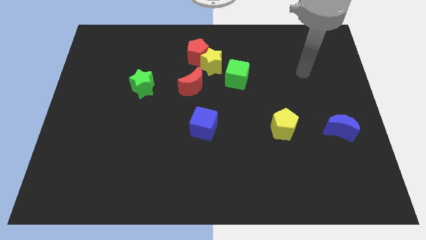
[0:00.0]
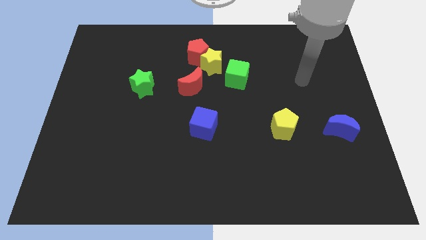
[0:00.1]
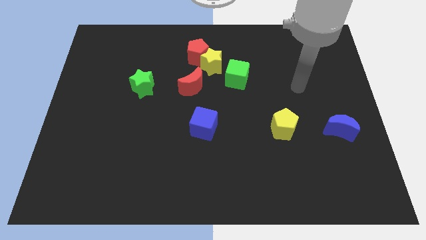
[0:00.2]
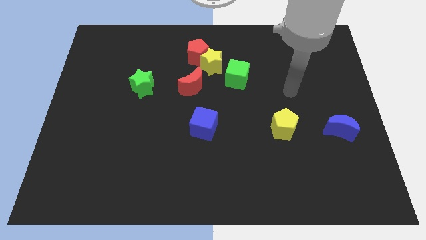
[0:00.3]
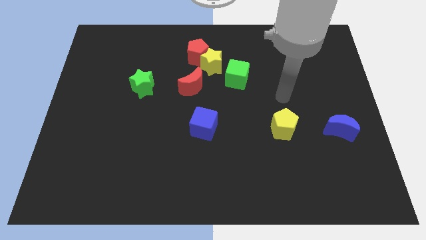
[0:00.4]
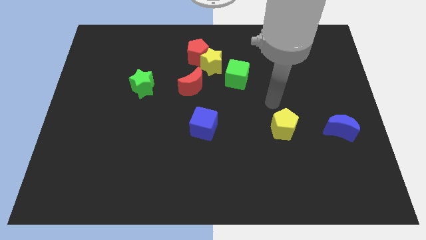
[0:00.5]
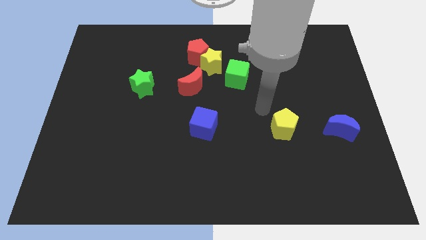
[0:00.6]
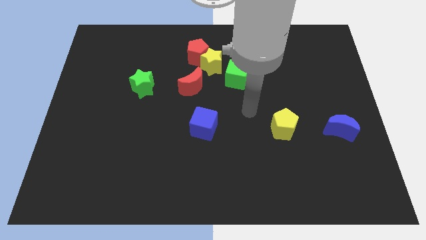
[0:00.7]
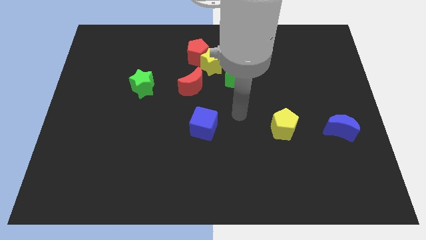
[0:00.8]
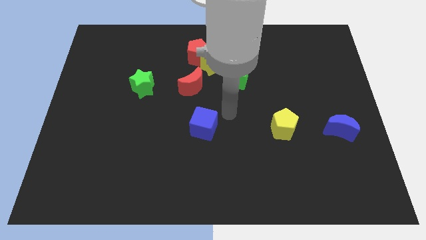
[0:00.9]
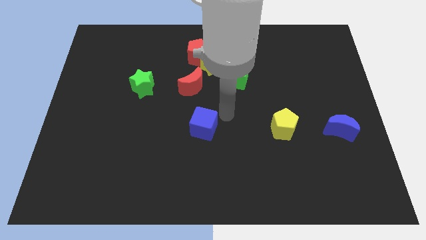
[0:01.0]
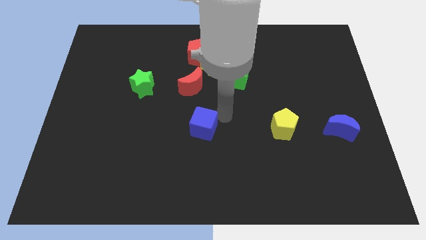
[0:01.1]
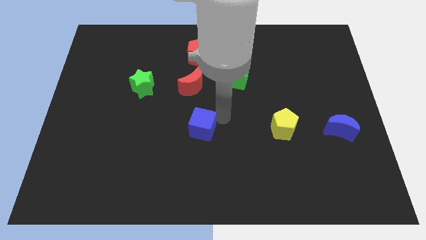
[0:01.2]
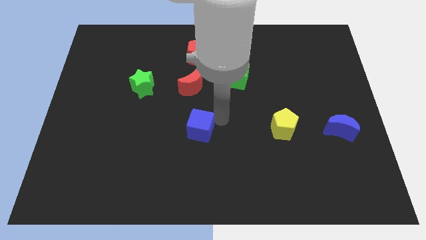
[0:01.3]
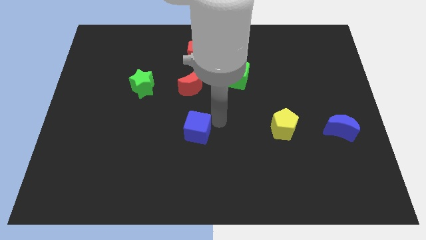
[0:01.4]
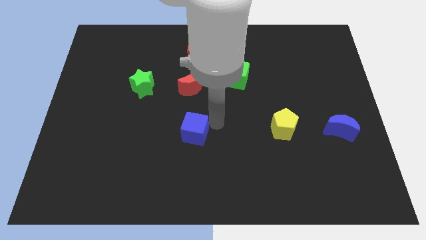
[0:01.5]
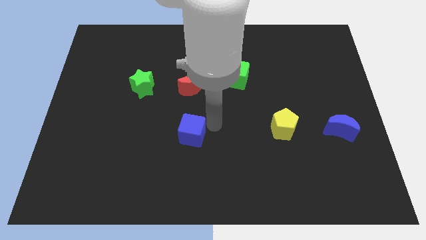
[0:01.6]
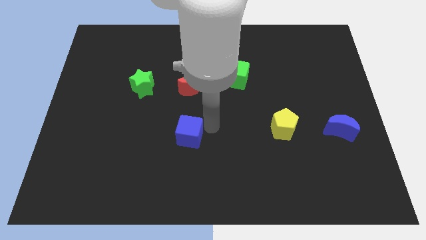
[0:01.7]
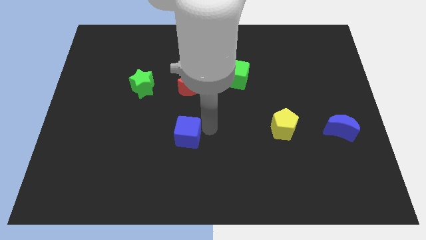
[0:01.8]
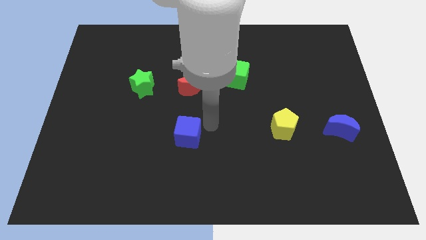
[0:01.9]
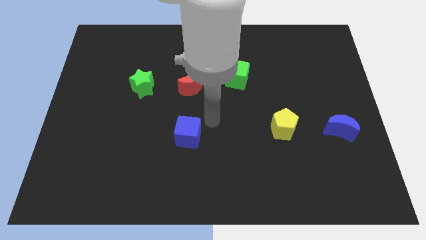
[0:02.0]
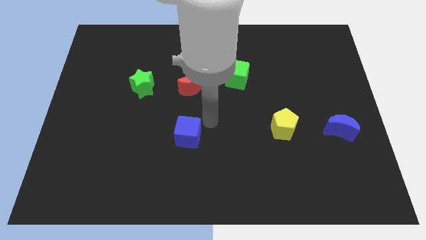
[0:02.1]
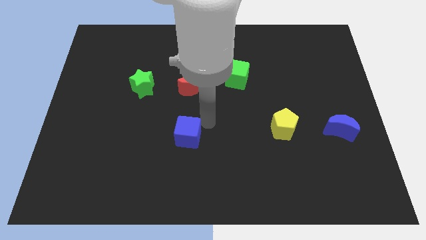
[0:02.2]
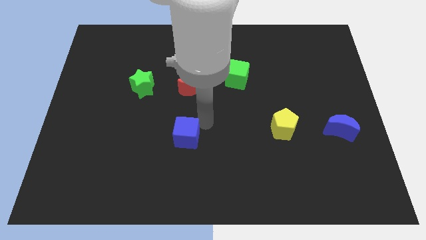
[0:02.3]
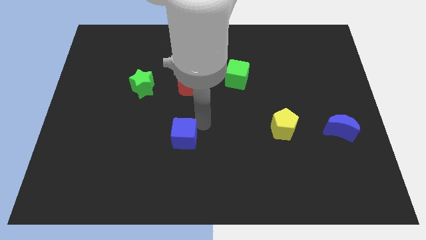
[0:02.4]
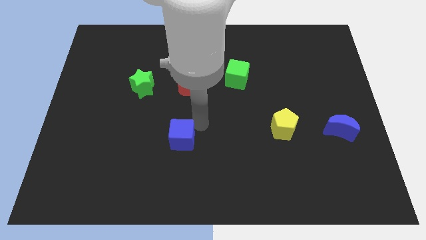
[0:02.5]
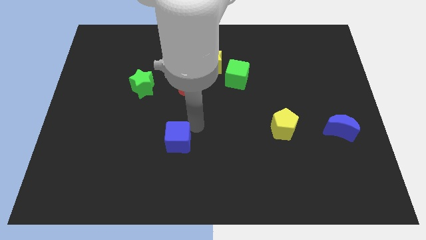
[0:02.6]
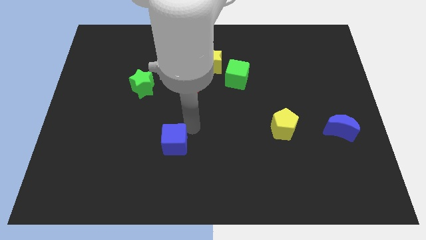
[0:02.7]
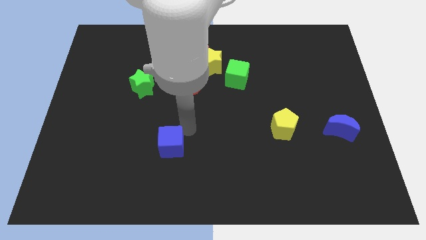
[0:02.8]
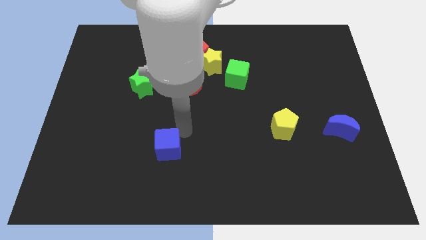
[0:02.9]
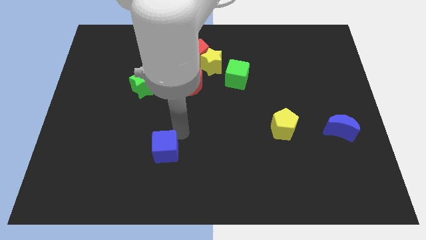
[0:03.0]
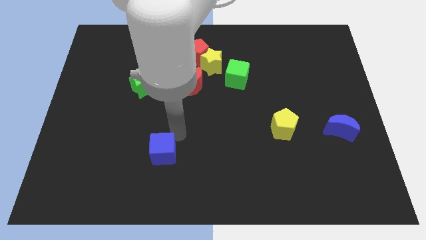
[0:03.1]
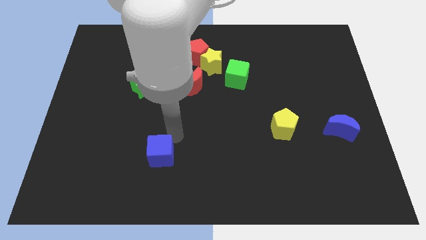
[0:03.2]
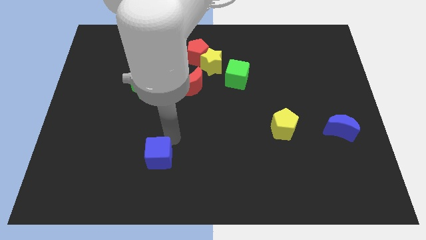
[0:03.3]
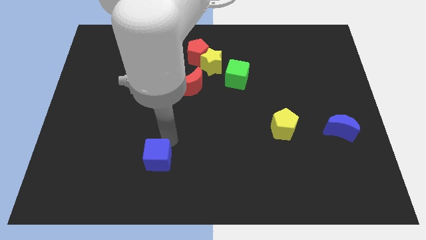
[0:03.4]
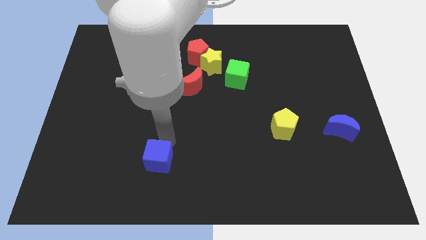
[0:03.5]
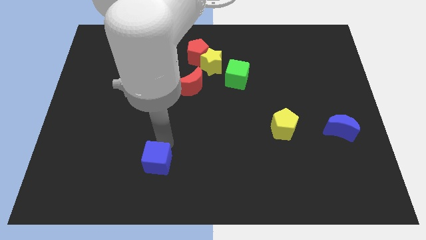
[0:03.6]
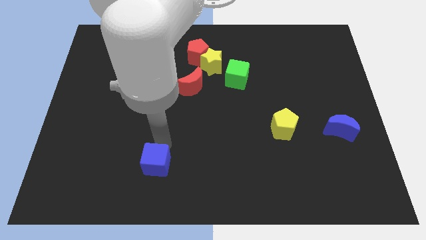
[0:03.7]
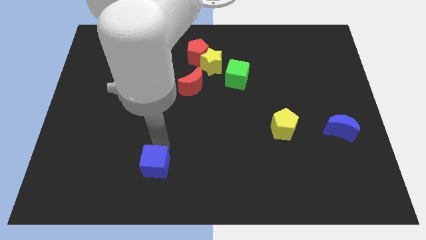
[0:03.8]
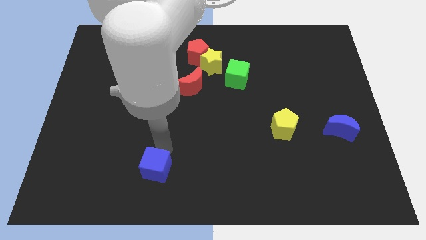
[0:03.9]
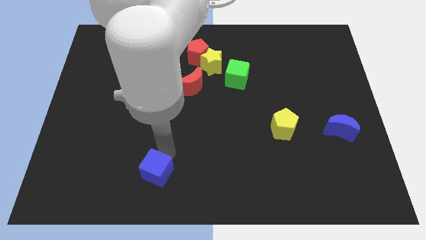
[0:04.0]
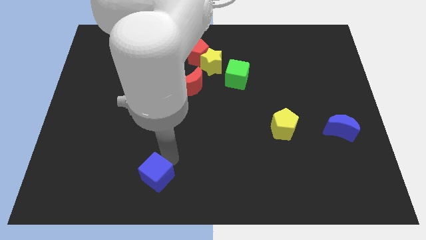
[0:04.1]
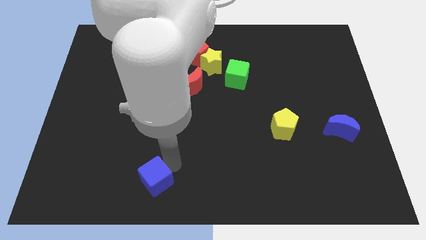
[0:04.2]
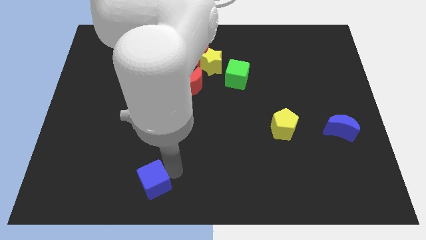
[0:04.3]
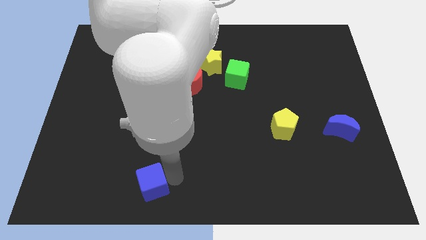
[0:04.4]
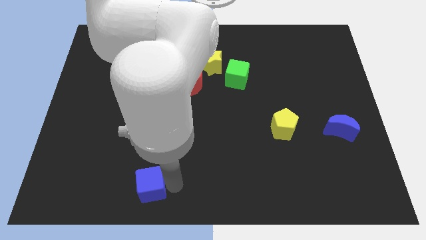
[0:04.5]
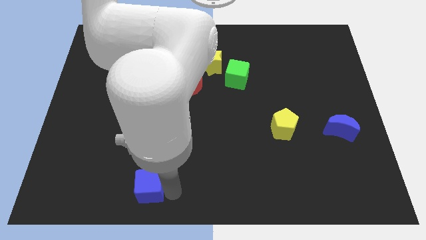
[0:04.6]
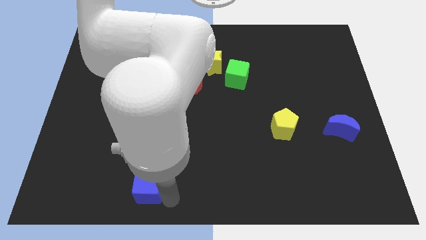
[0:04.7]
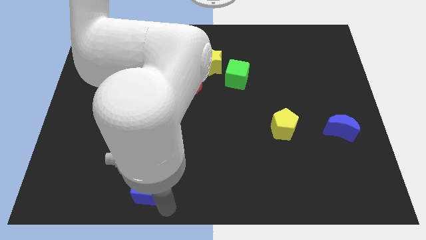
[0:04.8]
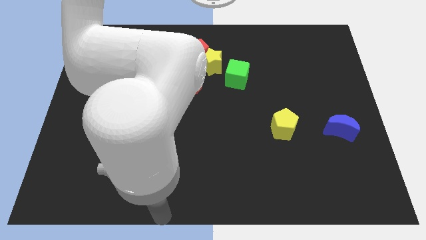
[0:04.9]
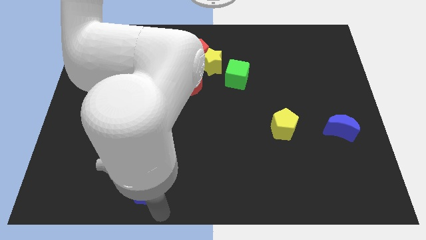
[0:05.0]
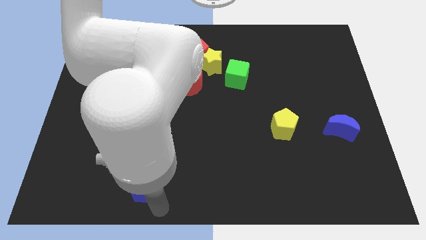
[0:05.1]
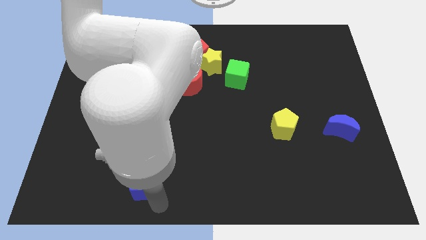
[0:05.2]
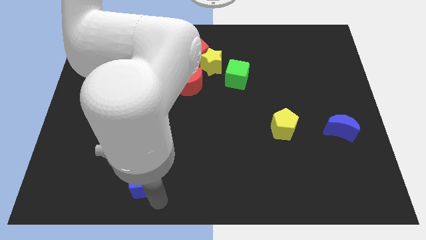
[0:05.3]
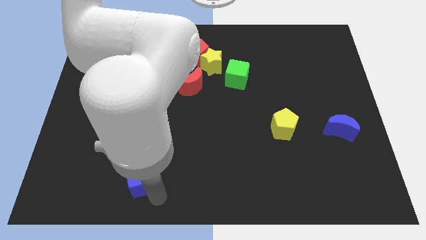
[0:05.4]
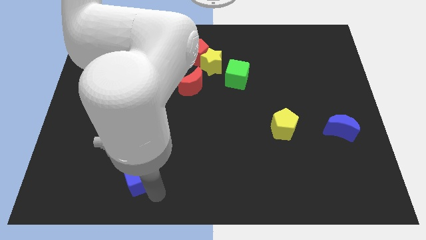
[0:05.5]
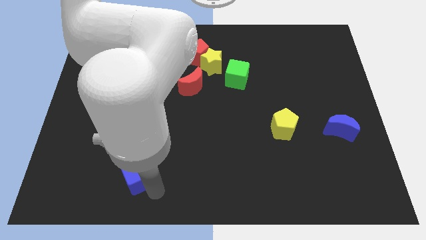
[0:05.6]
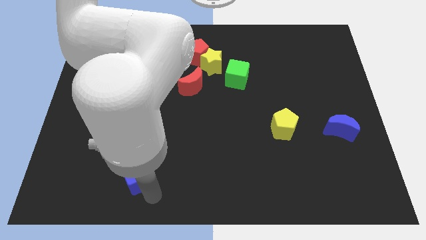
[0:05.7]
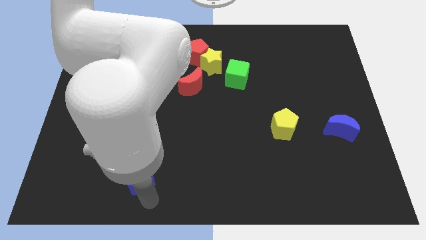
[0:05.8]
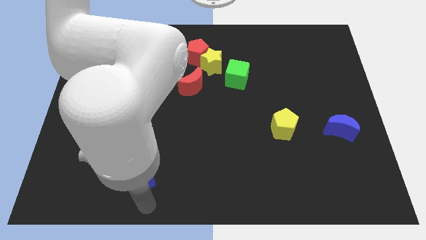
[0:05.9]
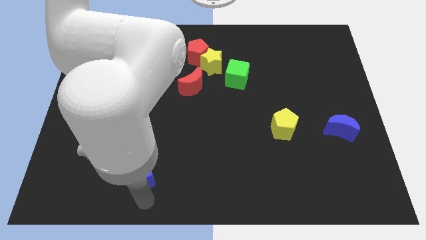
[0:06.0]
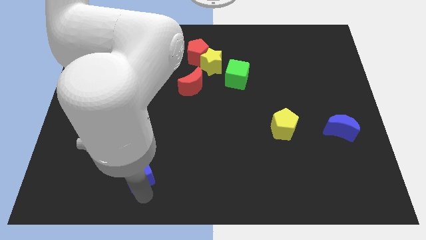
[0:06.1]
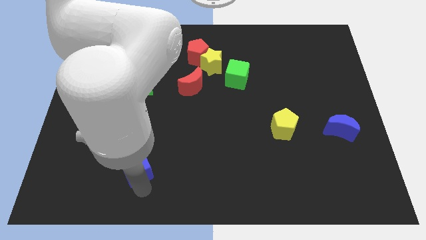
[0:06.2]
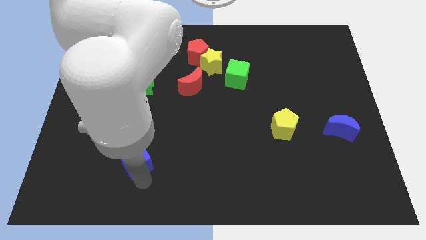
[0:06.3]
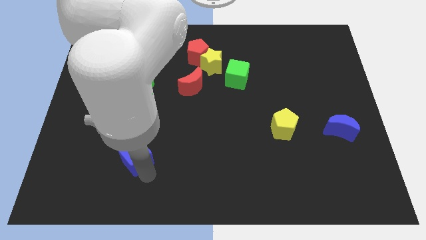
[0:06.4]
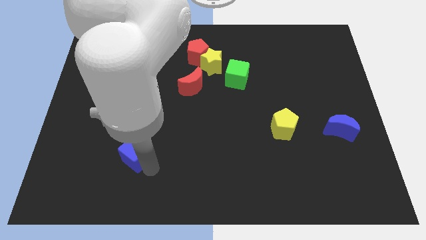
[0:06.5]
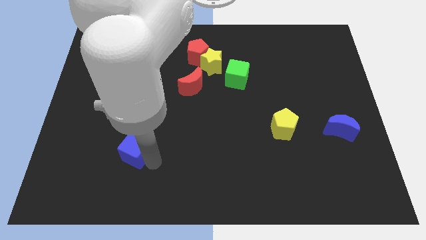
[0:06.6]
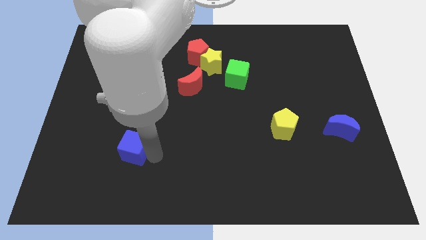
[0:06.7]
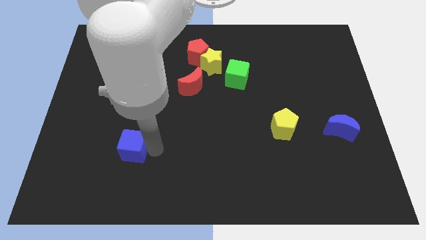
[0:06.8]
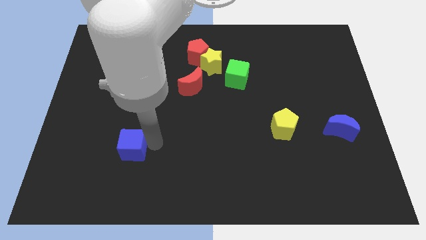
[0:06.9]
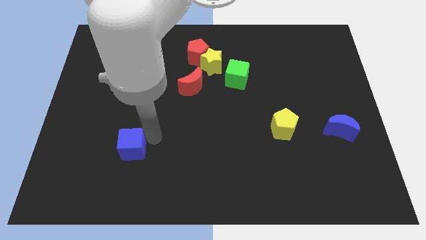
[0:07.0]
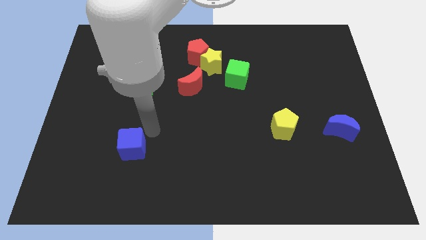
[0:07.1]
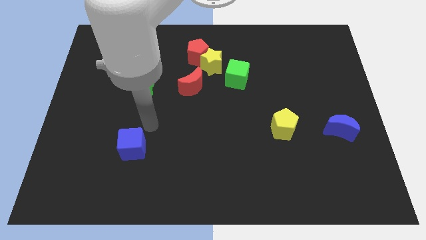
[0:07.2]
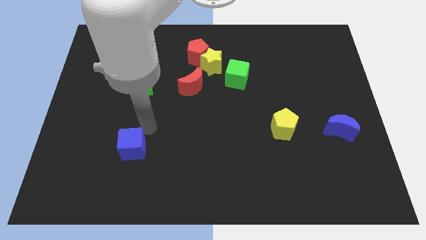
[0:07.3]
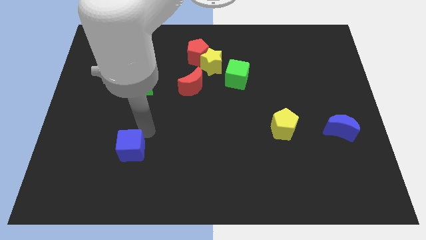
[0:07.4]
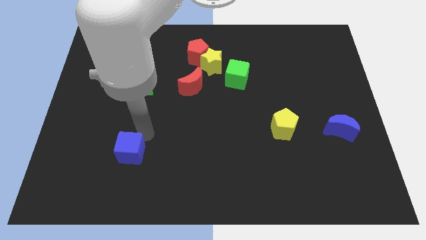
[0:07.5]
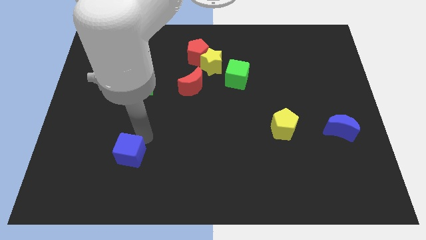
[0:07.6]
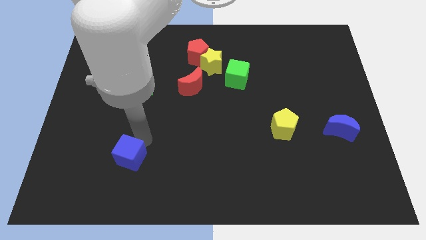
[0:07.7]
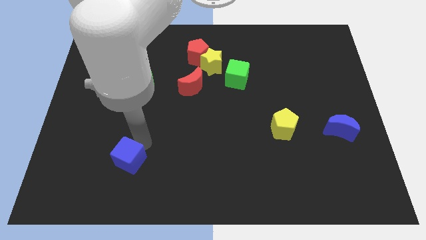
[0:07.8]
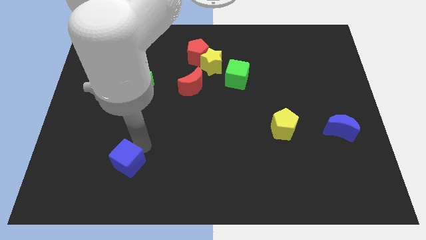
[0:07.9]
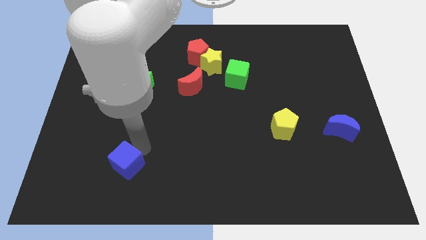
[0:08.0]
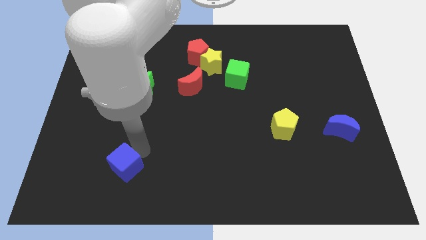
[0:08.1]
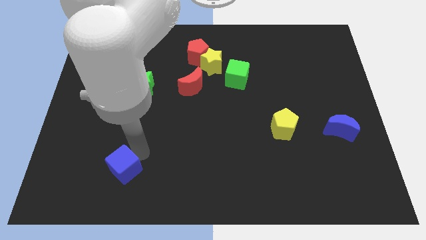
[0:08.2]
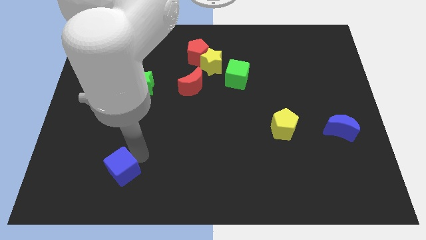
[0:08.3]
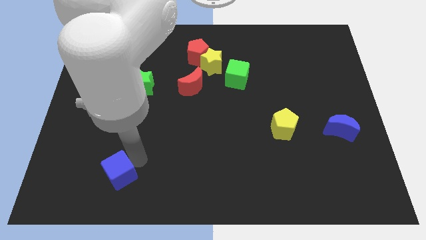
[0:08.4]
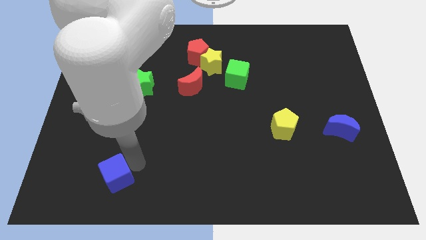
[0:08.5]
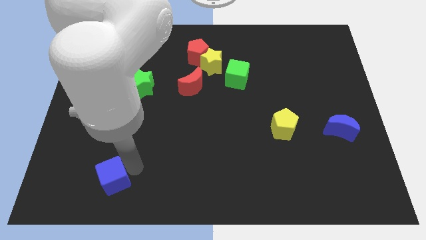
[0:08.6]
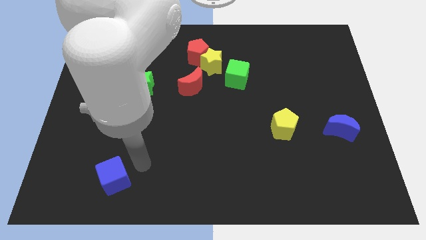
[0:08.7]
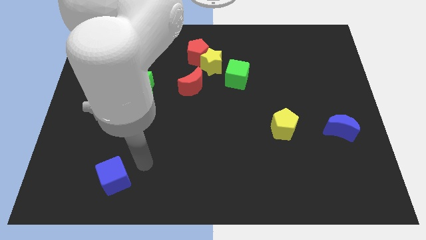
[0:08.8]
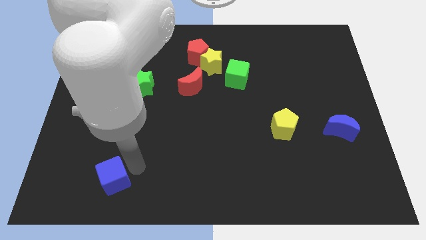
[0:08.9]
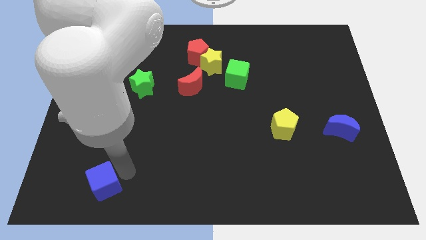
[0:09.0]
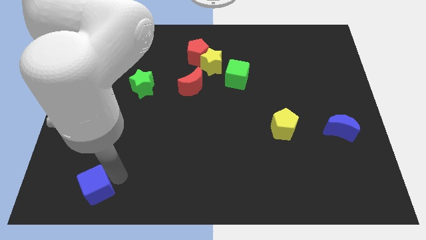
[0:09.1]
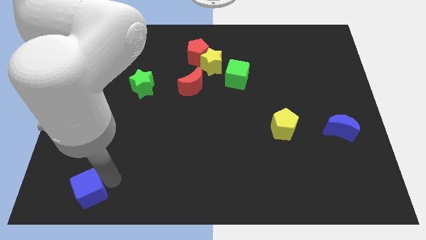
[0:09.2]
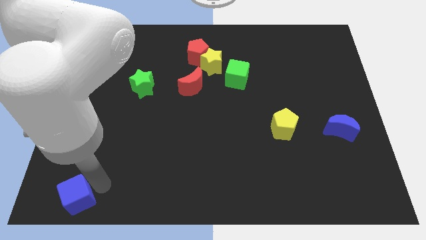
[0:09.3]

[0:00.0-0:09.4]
put the blue cube to the lower left corner
